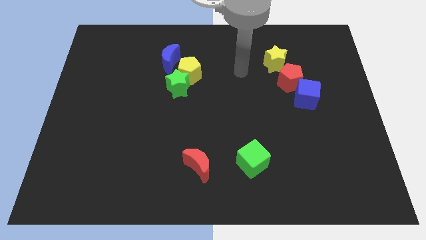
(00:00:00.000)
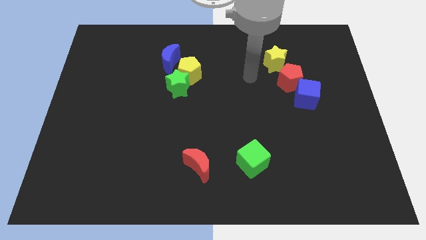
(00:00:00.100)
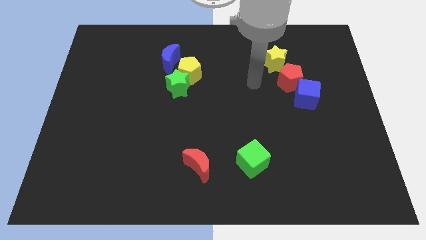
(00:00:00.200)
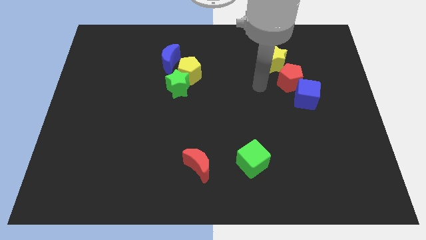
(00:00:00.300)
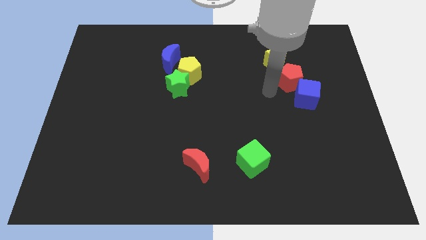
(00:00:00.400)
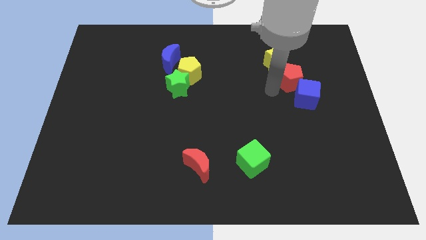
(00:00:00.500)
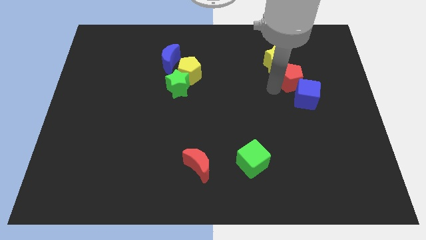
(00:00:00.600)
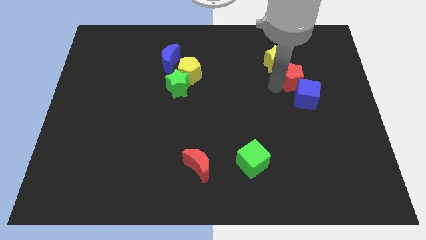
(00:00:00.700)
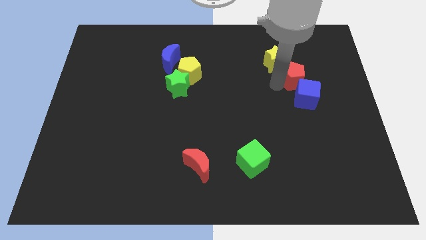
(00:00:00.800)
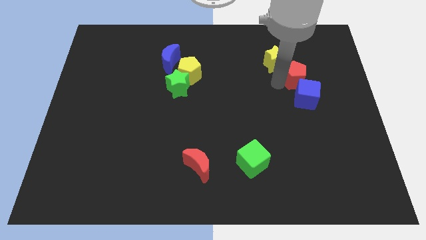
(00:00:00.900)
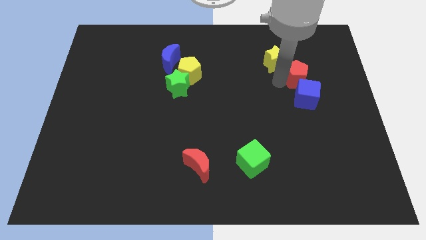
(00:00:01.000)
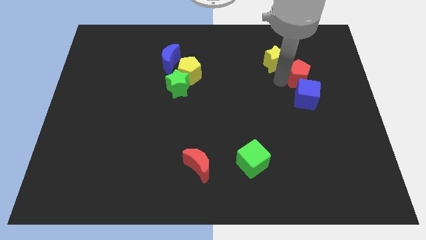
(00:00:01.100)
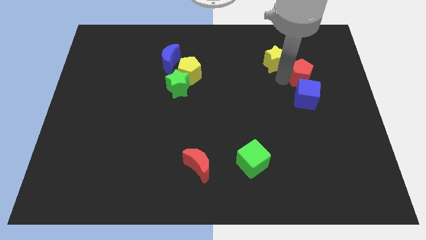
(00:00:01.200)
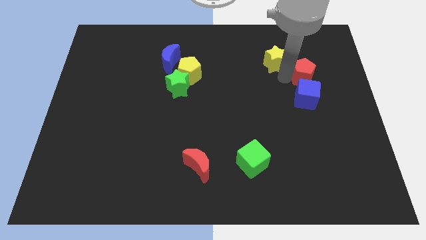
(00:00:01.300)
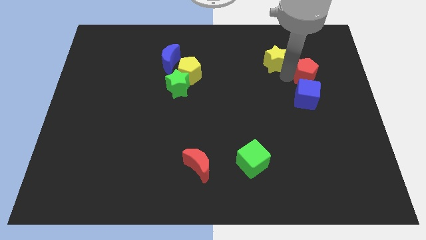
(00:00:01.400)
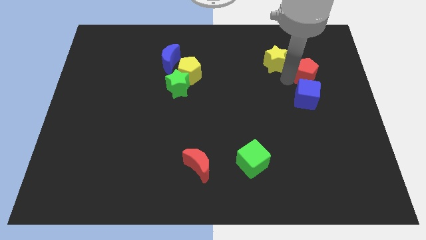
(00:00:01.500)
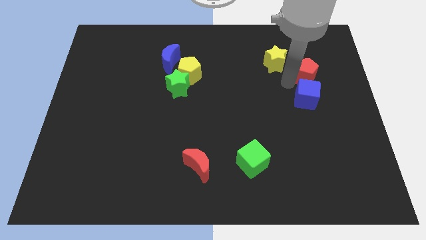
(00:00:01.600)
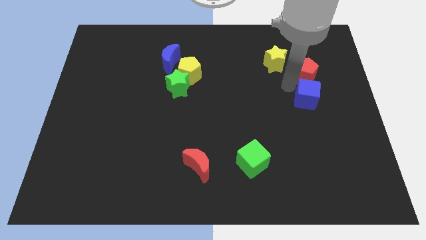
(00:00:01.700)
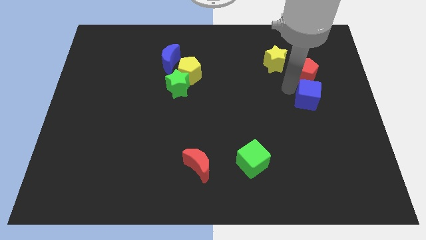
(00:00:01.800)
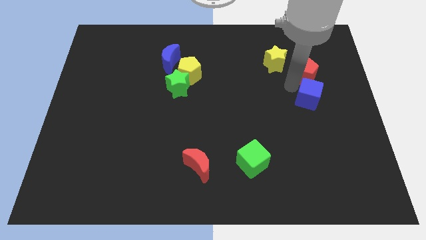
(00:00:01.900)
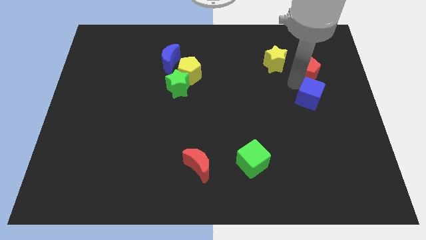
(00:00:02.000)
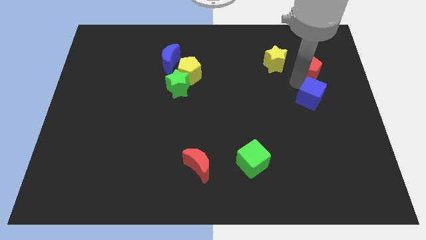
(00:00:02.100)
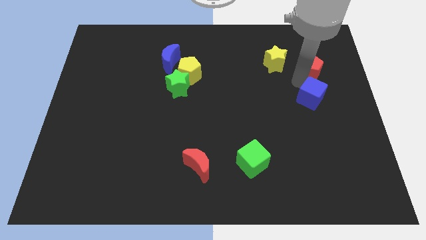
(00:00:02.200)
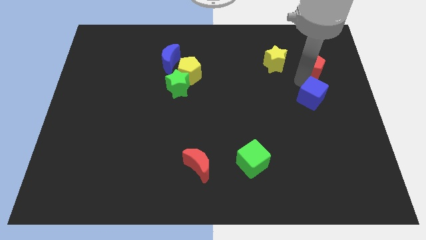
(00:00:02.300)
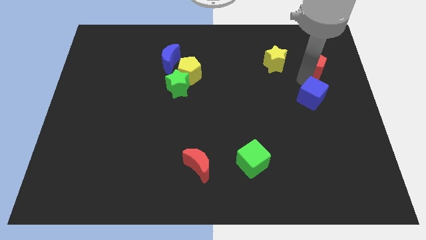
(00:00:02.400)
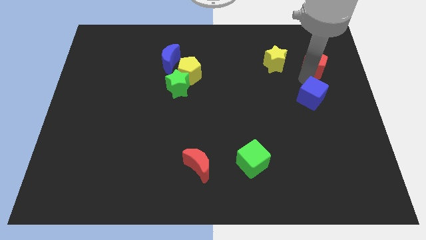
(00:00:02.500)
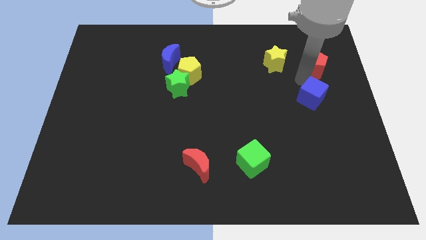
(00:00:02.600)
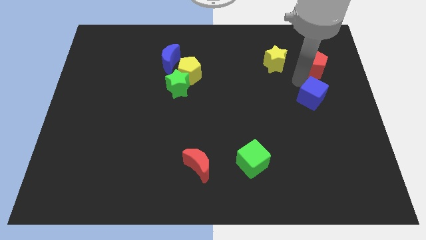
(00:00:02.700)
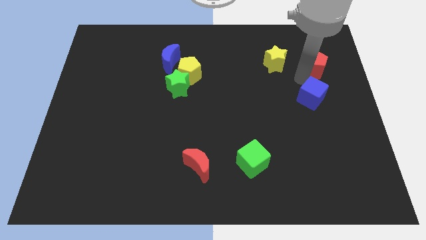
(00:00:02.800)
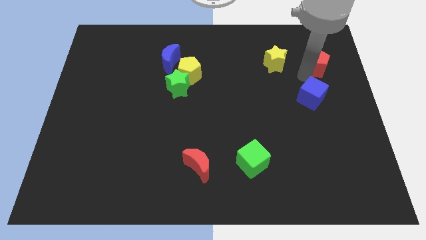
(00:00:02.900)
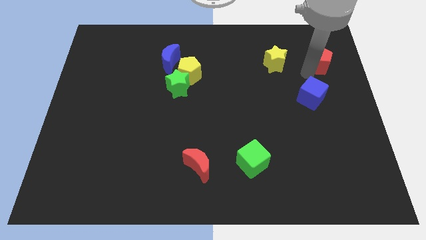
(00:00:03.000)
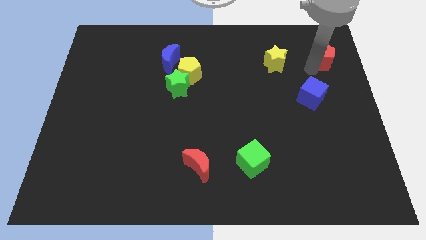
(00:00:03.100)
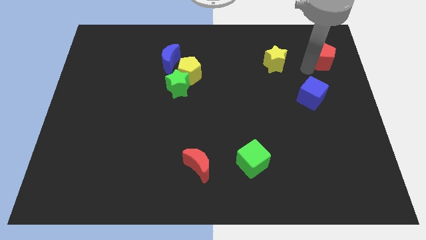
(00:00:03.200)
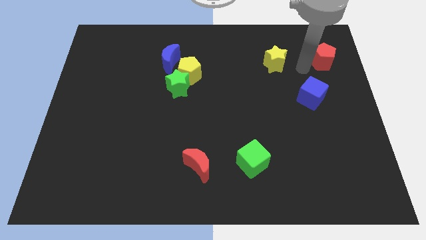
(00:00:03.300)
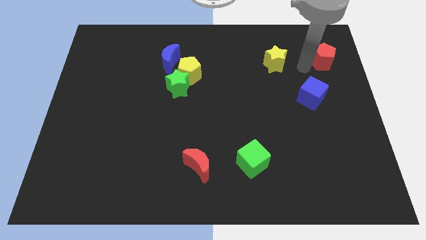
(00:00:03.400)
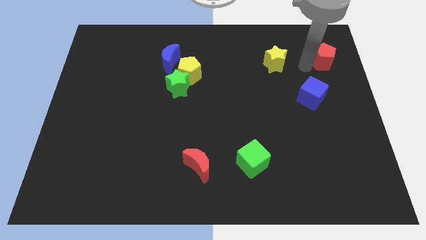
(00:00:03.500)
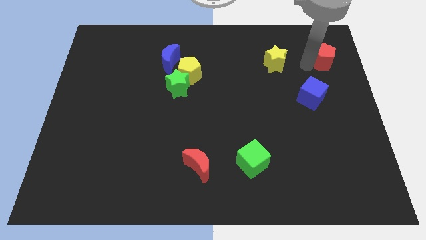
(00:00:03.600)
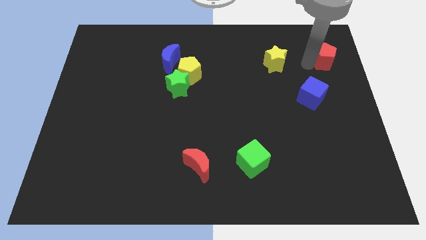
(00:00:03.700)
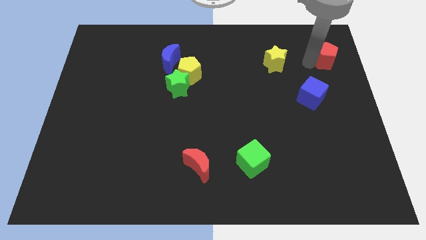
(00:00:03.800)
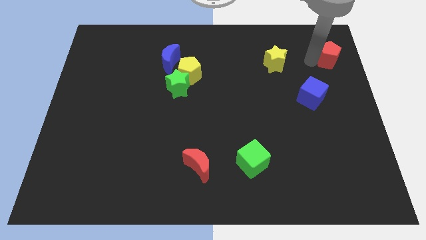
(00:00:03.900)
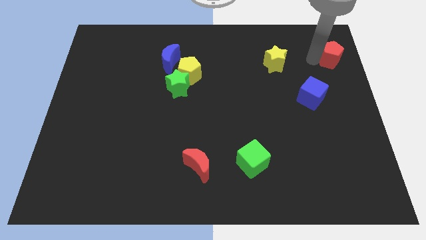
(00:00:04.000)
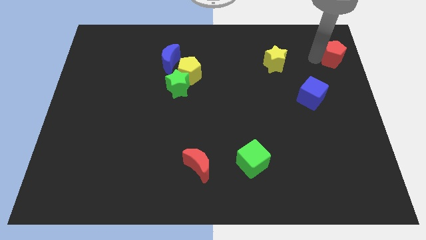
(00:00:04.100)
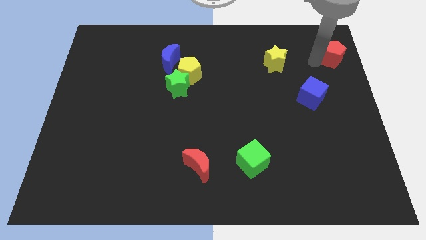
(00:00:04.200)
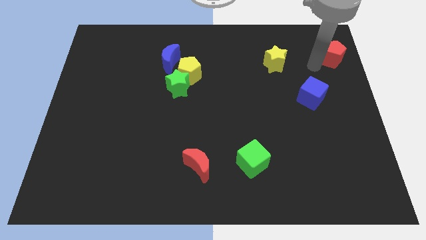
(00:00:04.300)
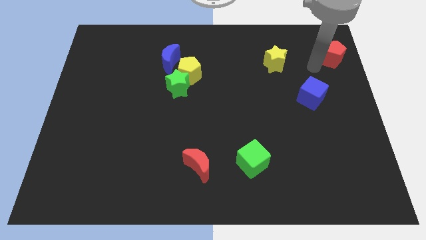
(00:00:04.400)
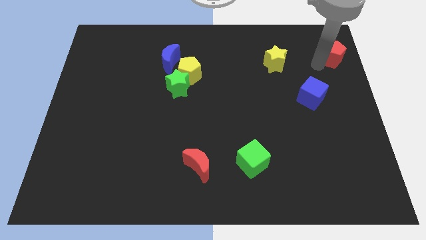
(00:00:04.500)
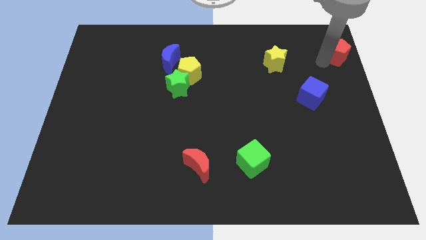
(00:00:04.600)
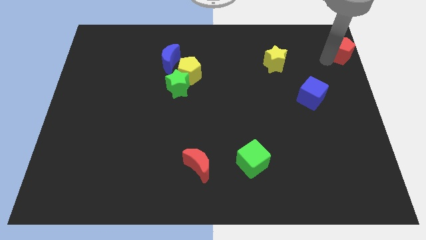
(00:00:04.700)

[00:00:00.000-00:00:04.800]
put the red pentagon to the top right corner

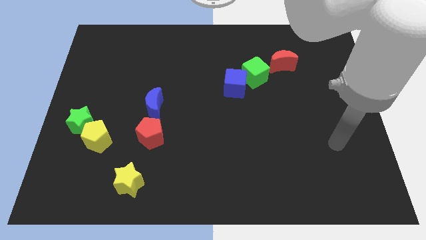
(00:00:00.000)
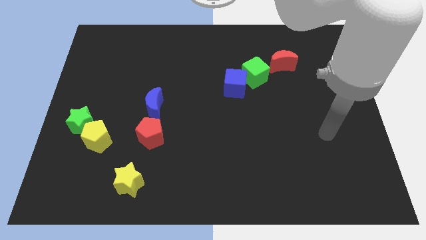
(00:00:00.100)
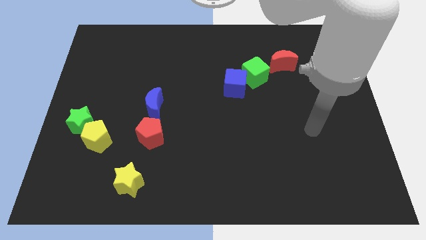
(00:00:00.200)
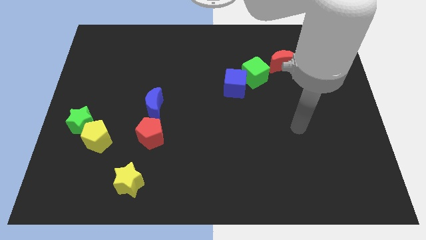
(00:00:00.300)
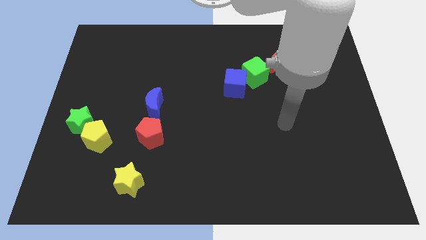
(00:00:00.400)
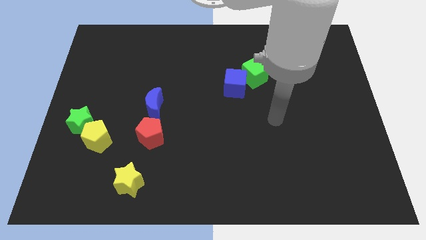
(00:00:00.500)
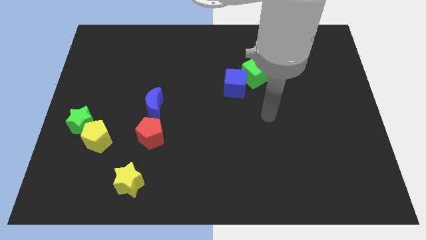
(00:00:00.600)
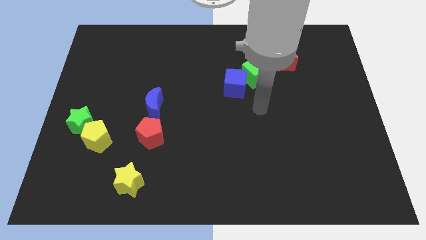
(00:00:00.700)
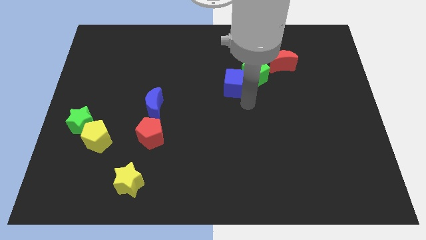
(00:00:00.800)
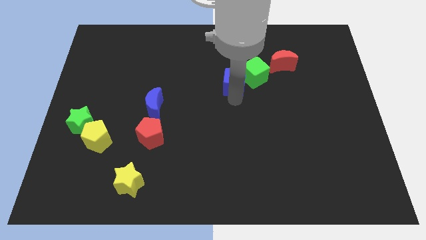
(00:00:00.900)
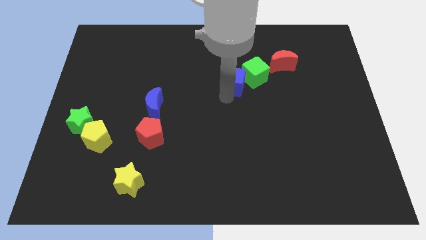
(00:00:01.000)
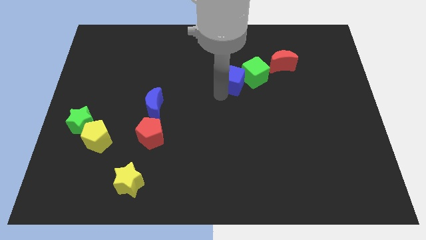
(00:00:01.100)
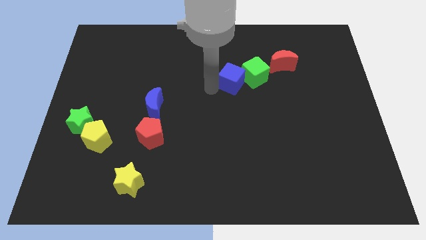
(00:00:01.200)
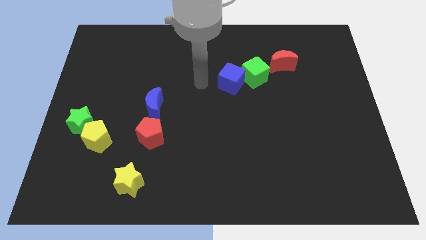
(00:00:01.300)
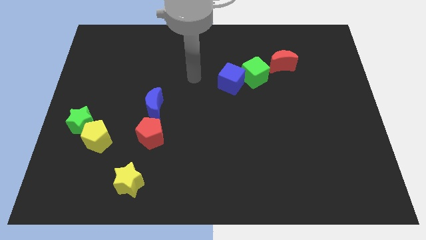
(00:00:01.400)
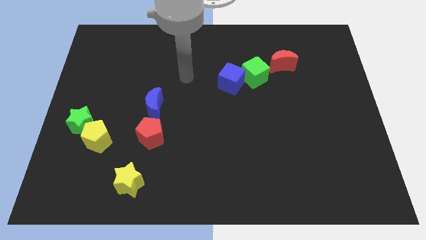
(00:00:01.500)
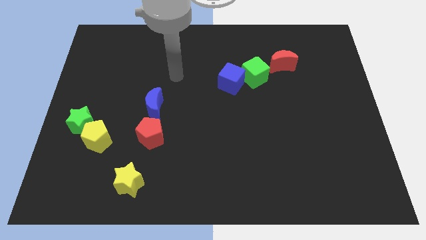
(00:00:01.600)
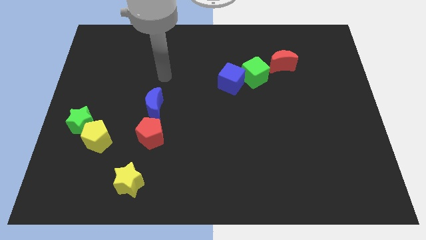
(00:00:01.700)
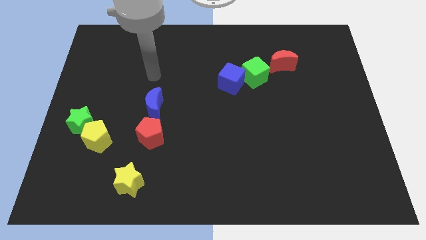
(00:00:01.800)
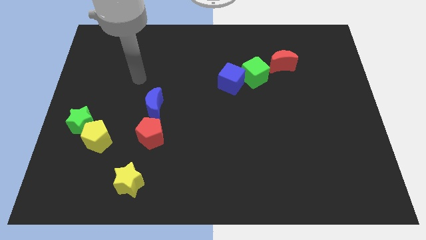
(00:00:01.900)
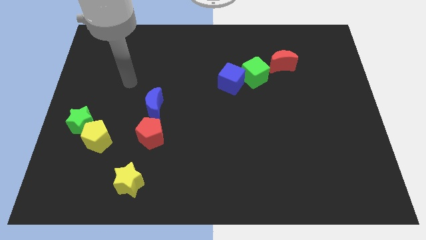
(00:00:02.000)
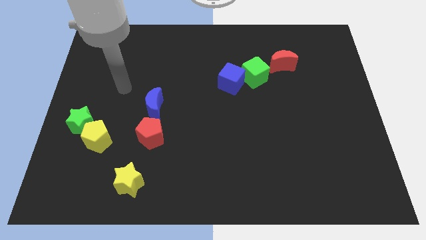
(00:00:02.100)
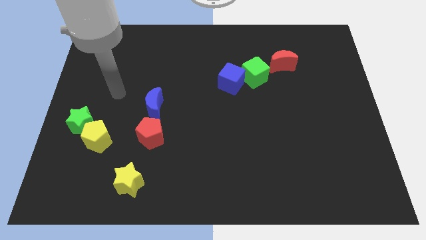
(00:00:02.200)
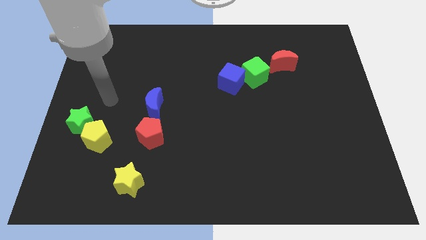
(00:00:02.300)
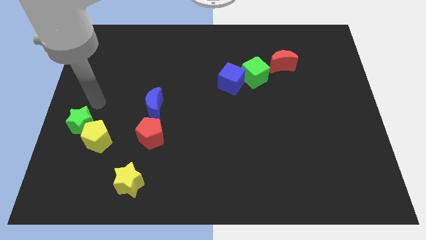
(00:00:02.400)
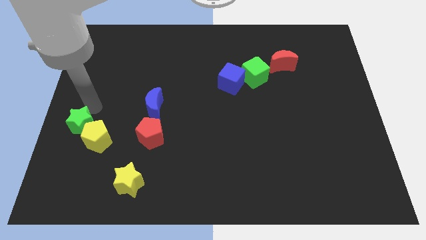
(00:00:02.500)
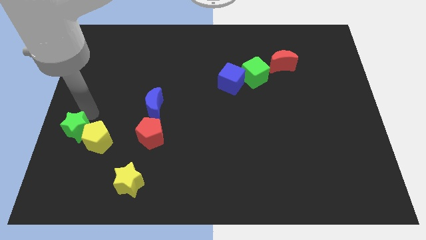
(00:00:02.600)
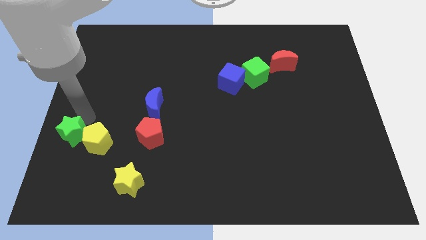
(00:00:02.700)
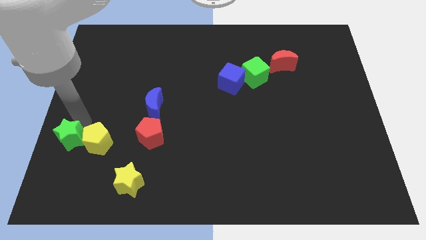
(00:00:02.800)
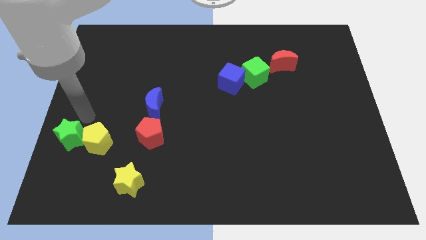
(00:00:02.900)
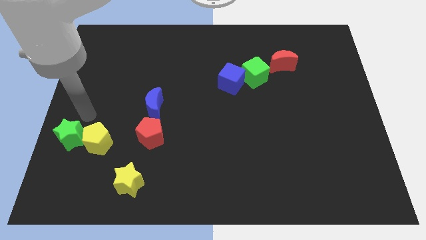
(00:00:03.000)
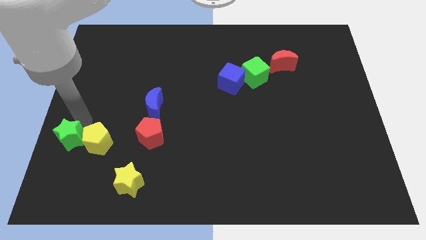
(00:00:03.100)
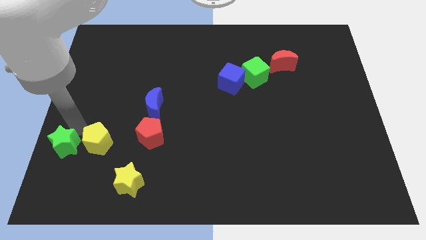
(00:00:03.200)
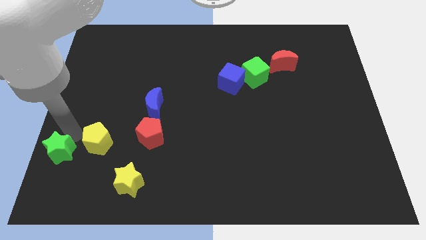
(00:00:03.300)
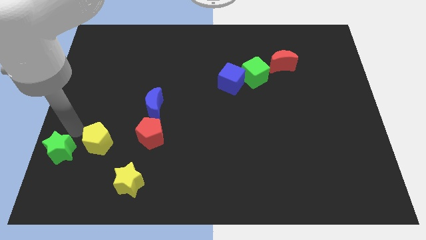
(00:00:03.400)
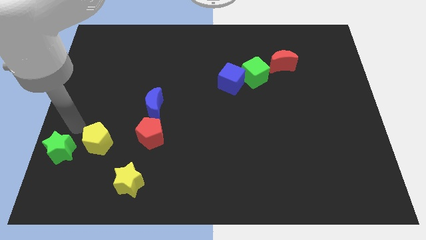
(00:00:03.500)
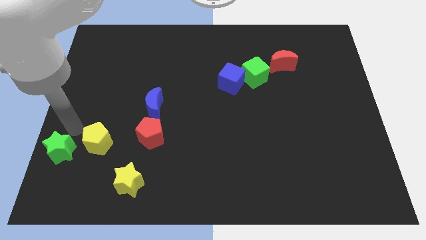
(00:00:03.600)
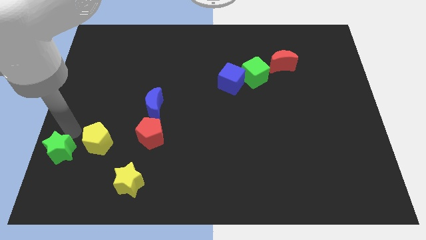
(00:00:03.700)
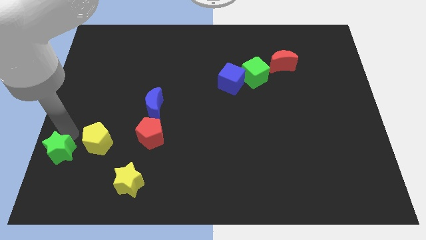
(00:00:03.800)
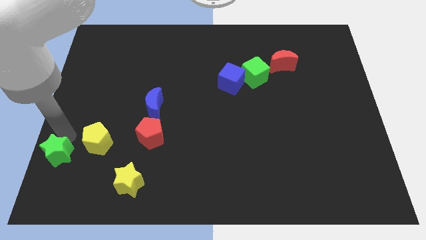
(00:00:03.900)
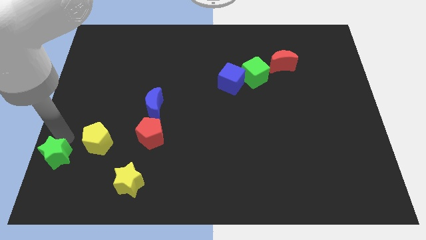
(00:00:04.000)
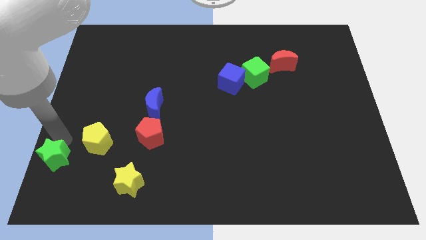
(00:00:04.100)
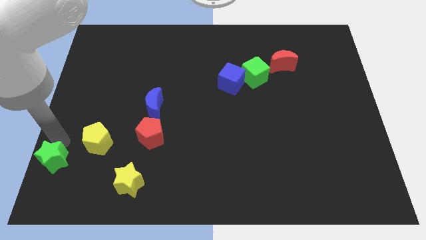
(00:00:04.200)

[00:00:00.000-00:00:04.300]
put the green star to the bottom left
